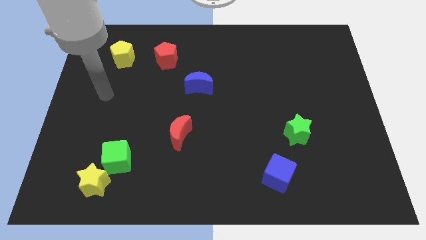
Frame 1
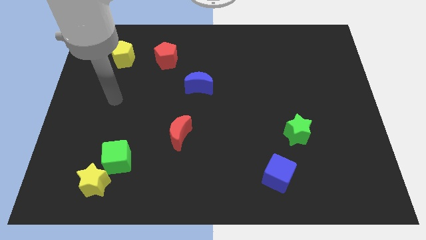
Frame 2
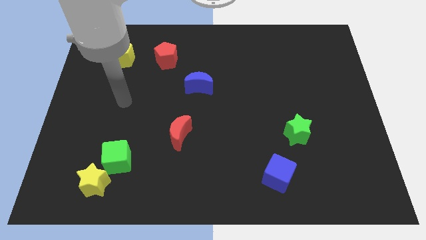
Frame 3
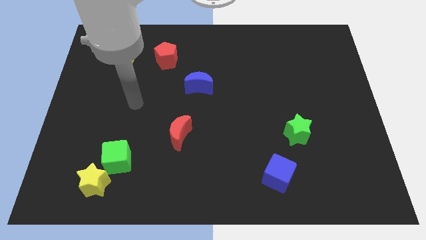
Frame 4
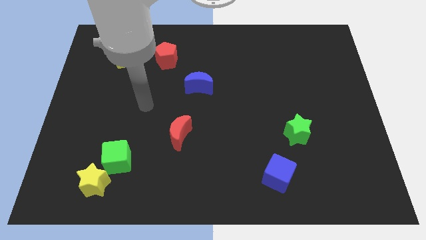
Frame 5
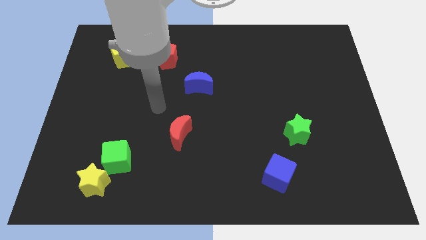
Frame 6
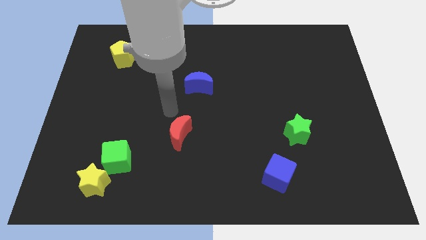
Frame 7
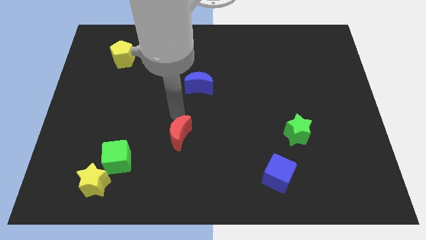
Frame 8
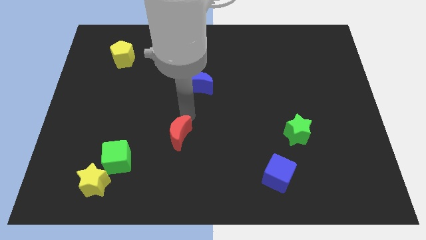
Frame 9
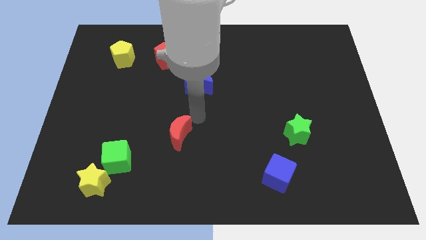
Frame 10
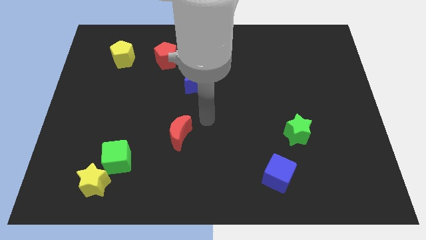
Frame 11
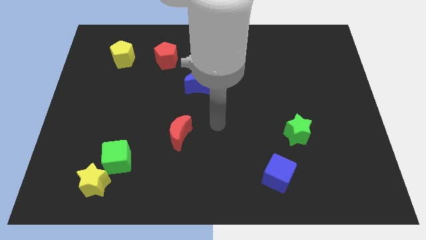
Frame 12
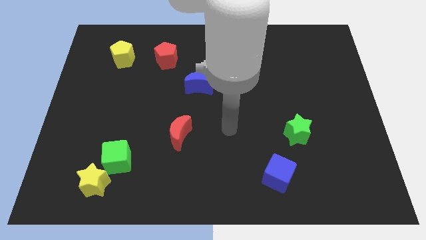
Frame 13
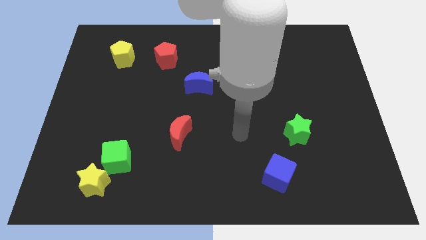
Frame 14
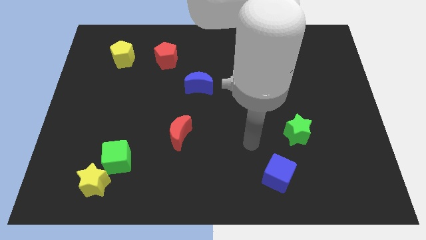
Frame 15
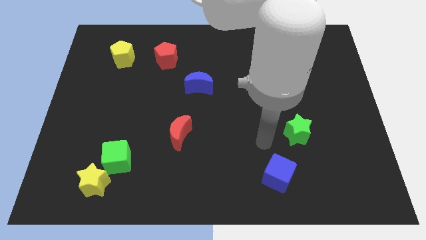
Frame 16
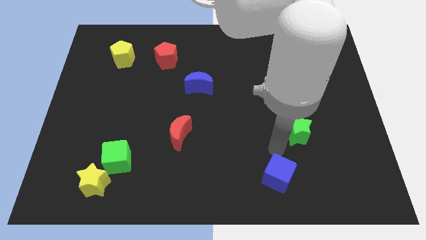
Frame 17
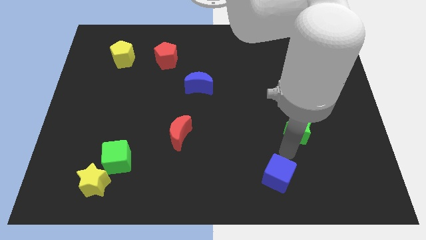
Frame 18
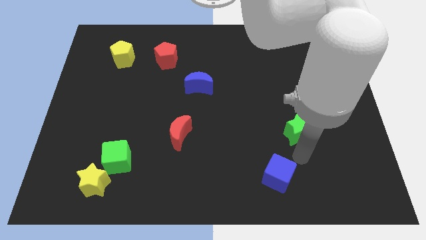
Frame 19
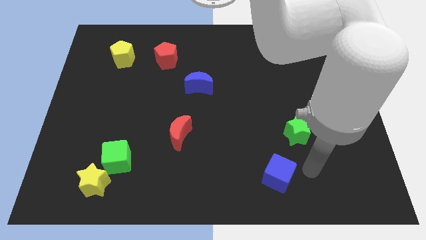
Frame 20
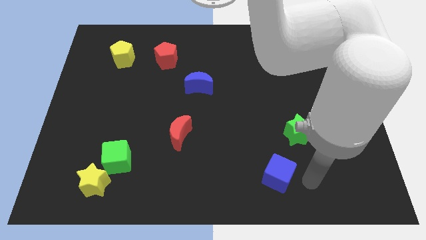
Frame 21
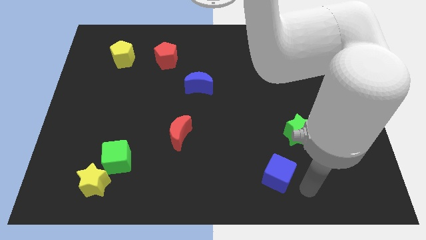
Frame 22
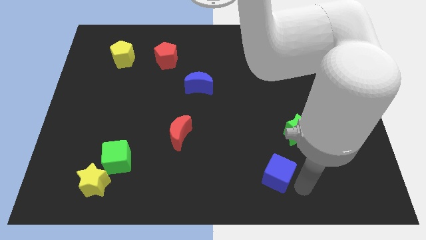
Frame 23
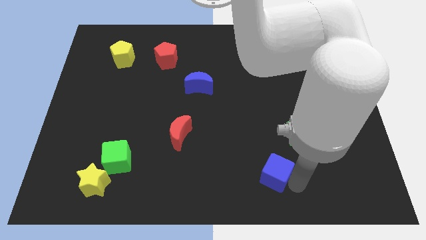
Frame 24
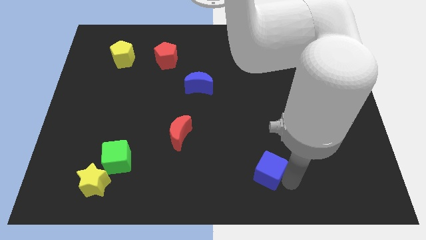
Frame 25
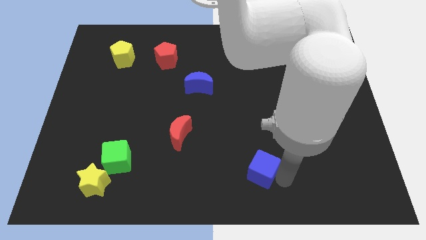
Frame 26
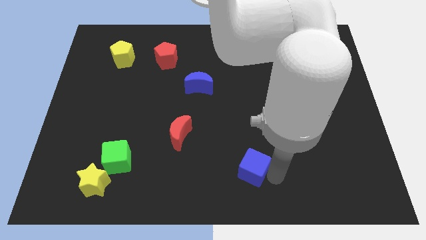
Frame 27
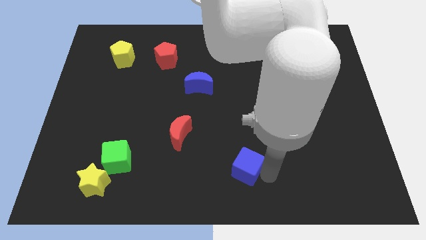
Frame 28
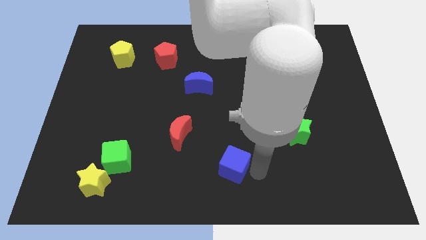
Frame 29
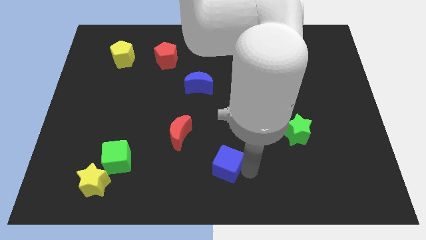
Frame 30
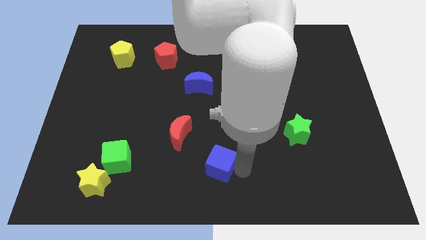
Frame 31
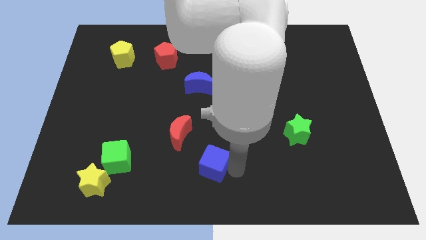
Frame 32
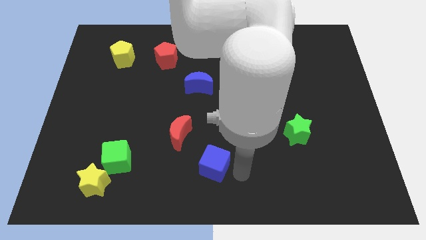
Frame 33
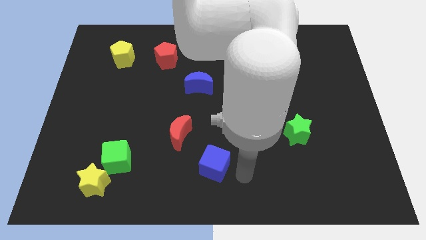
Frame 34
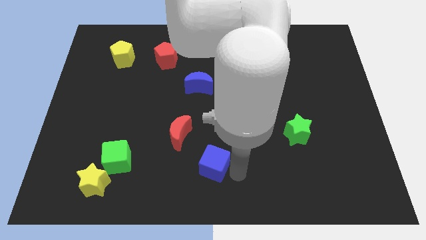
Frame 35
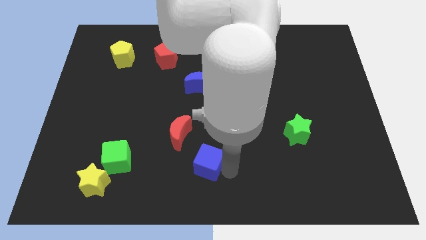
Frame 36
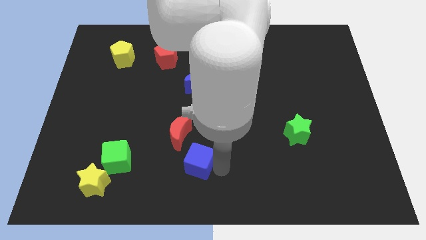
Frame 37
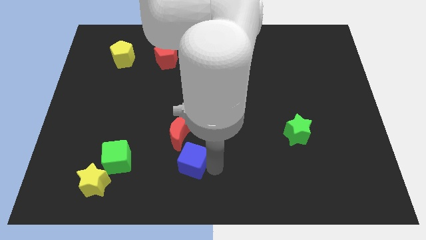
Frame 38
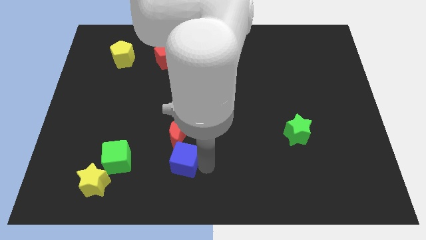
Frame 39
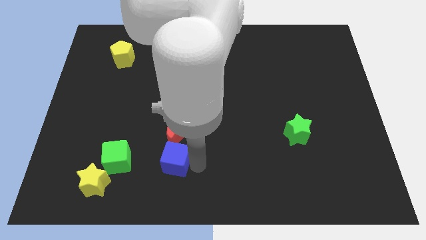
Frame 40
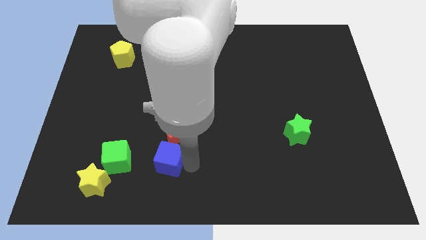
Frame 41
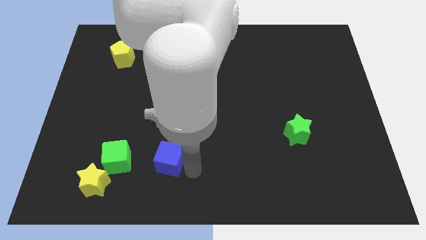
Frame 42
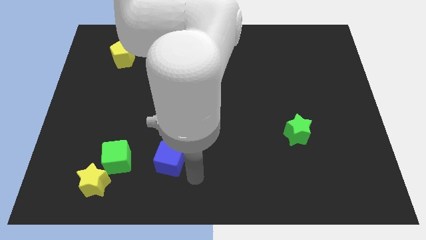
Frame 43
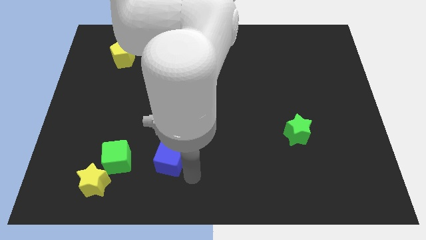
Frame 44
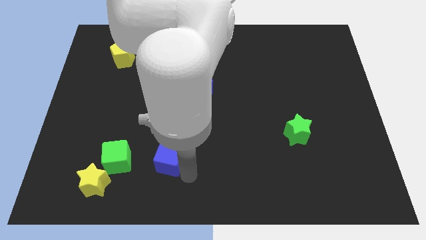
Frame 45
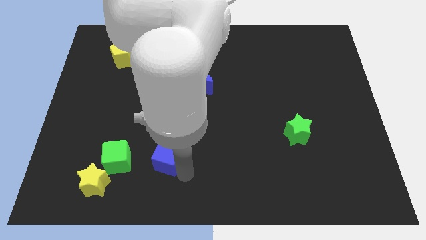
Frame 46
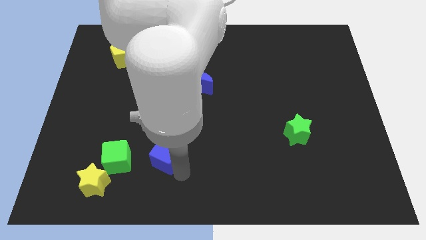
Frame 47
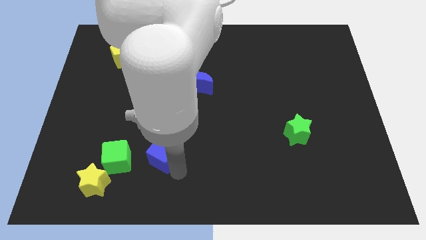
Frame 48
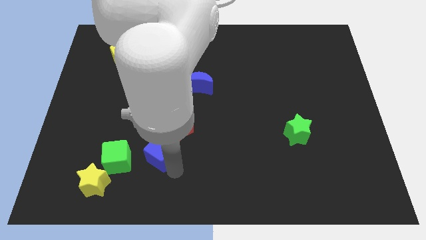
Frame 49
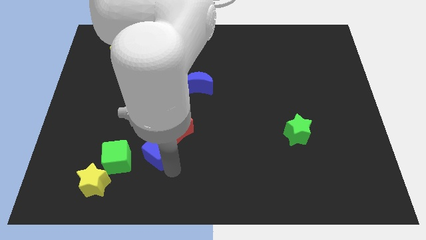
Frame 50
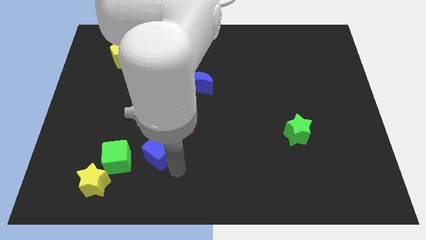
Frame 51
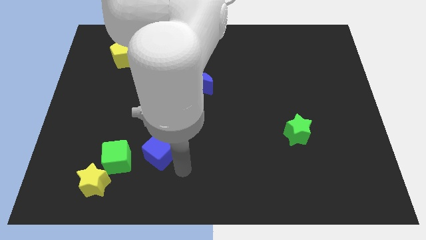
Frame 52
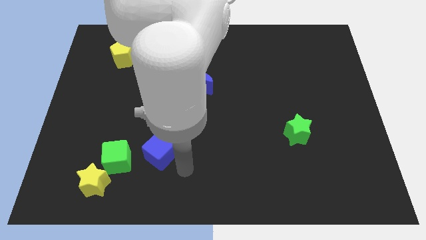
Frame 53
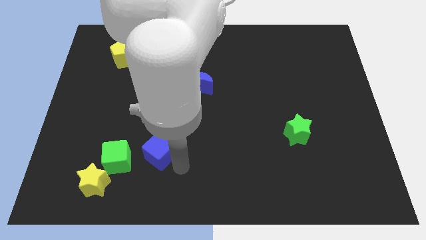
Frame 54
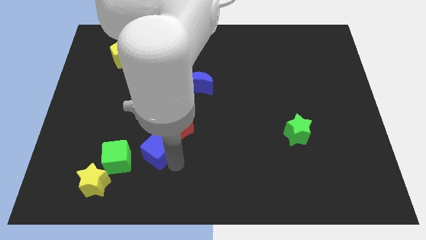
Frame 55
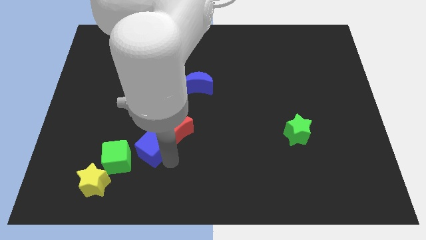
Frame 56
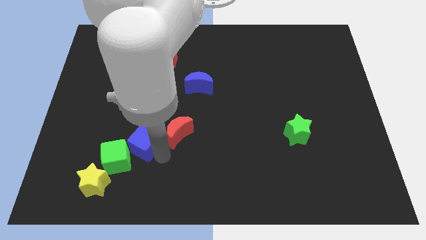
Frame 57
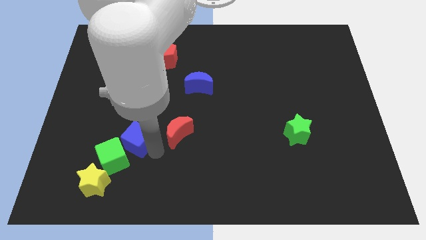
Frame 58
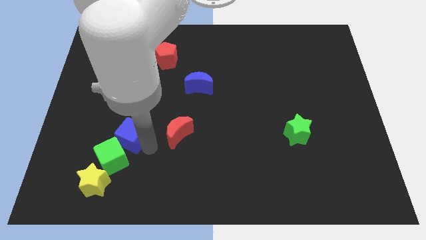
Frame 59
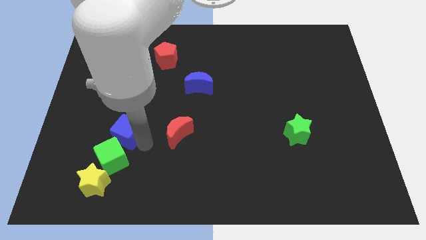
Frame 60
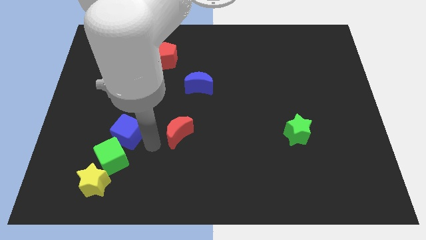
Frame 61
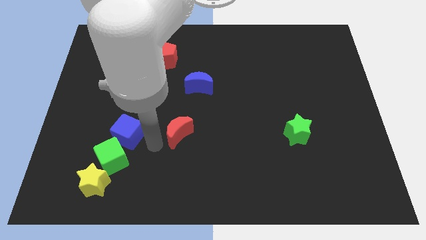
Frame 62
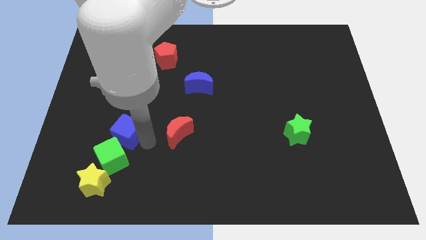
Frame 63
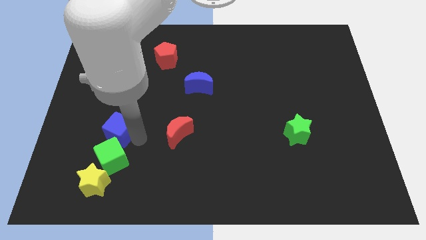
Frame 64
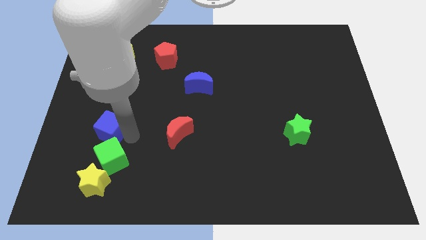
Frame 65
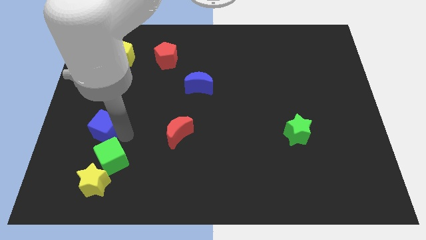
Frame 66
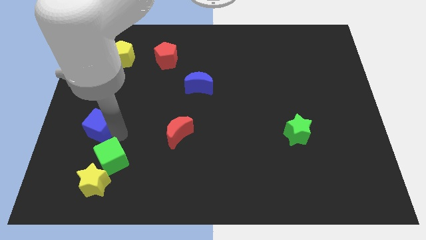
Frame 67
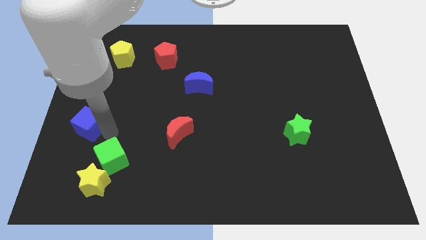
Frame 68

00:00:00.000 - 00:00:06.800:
move the blue cube to the center left
